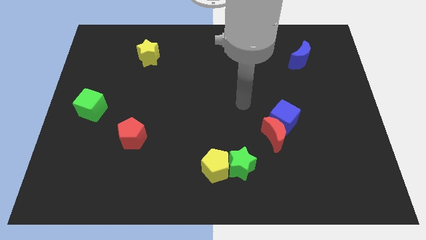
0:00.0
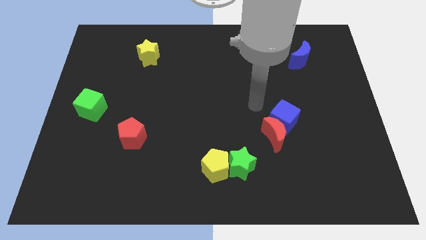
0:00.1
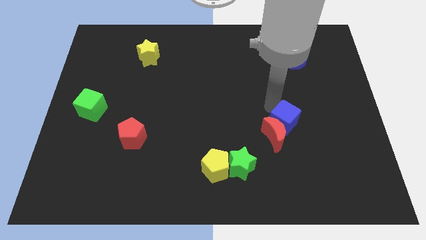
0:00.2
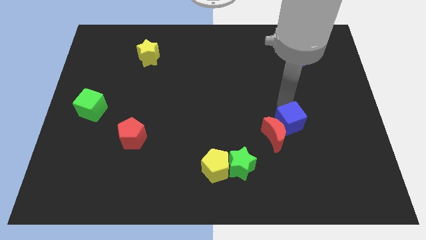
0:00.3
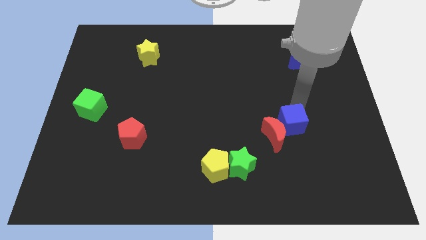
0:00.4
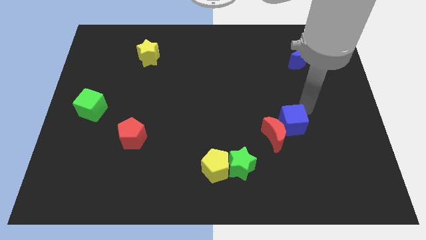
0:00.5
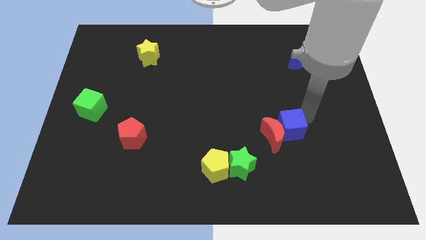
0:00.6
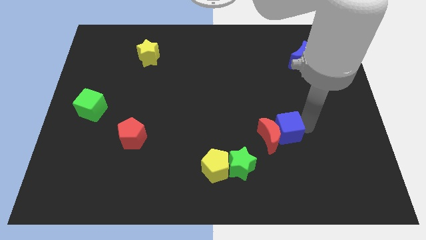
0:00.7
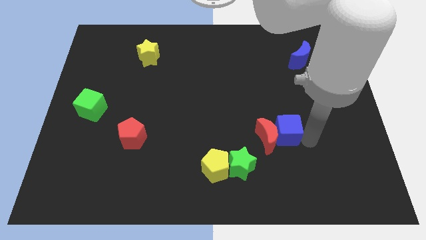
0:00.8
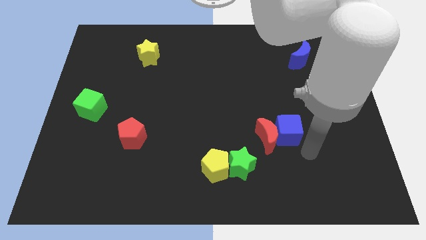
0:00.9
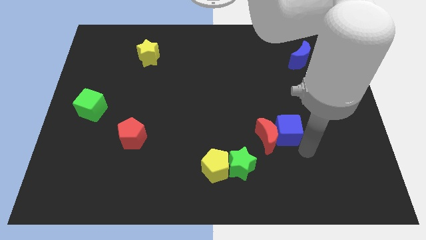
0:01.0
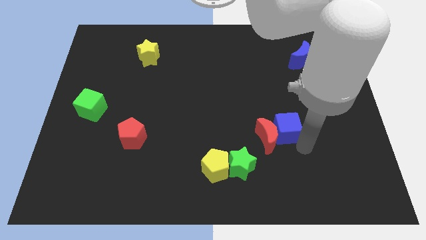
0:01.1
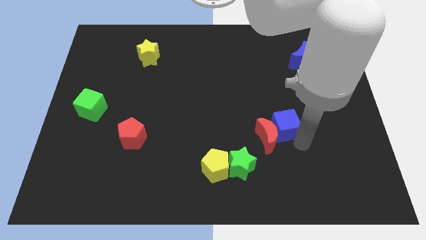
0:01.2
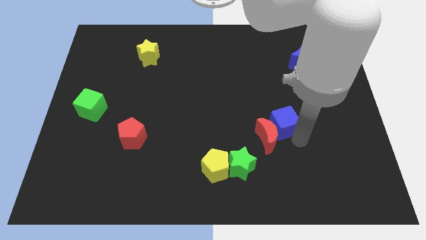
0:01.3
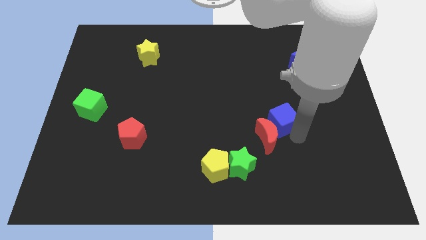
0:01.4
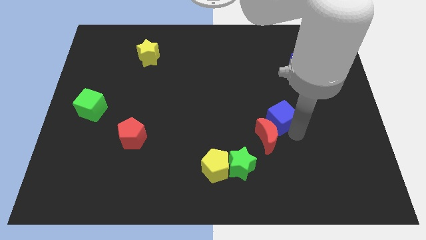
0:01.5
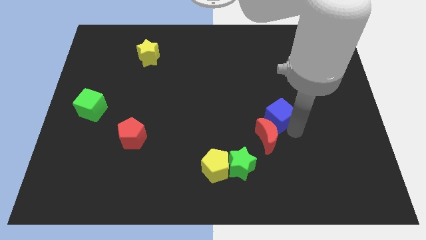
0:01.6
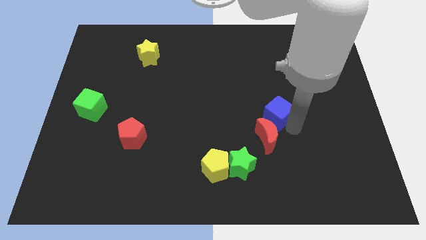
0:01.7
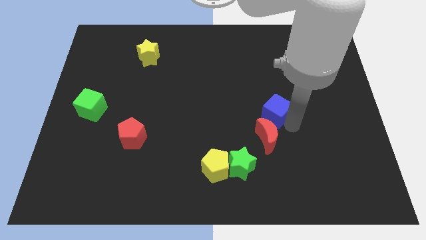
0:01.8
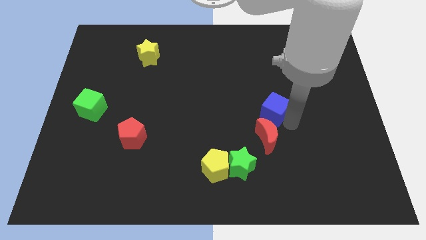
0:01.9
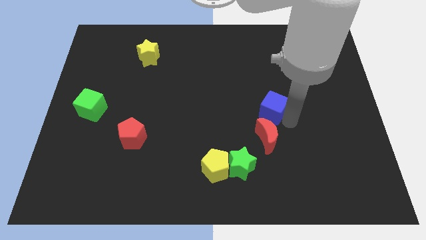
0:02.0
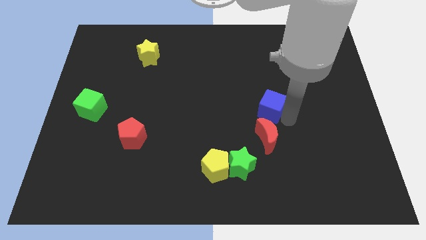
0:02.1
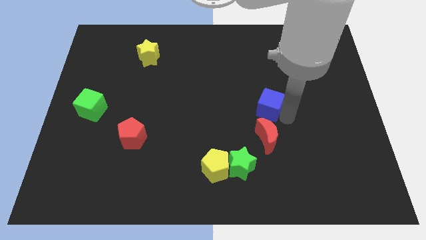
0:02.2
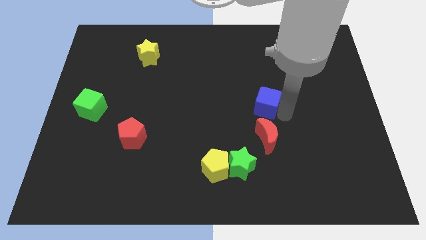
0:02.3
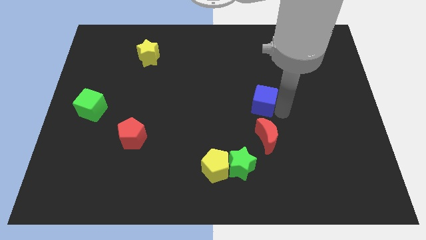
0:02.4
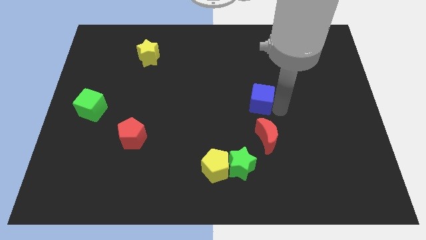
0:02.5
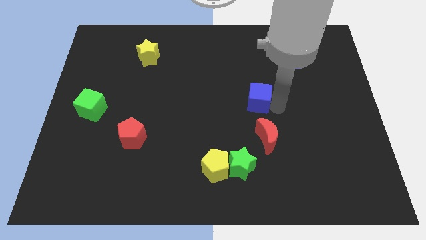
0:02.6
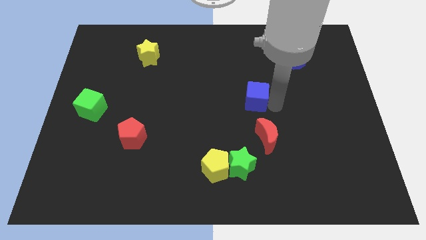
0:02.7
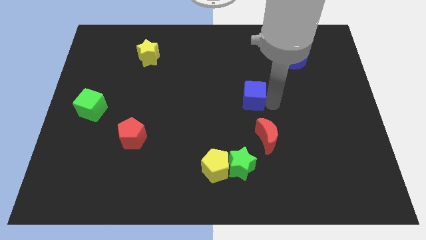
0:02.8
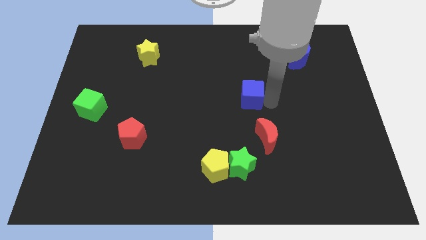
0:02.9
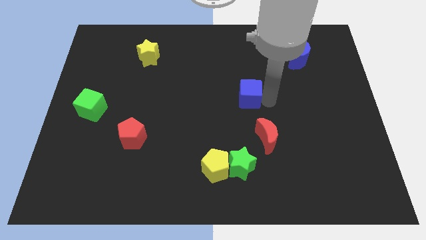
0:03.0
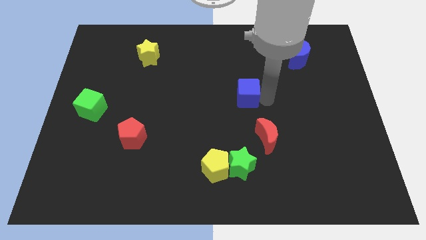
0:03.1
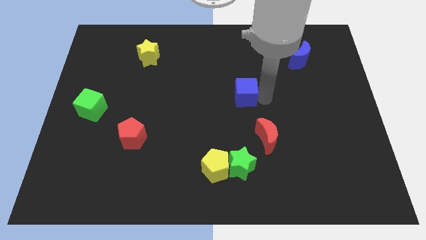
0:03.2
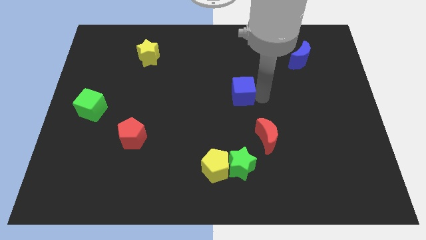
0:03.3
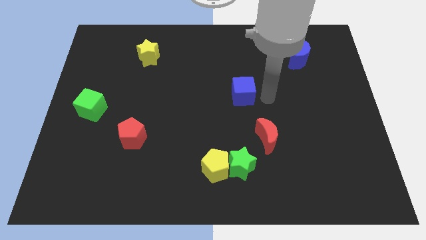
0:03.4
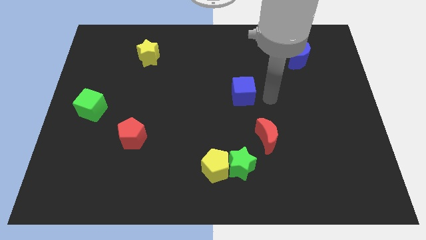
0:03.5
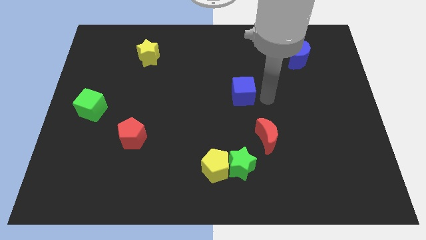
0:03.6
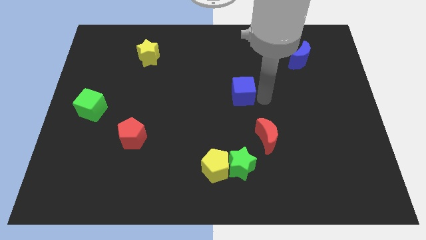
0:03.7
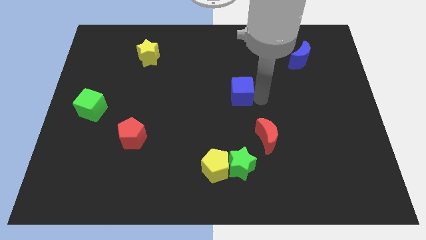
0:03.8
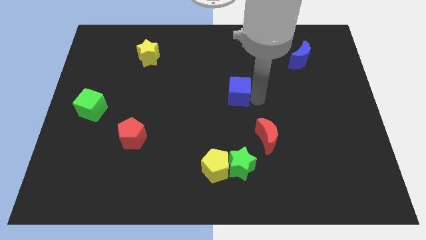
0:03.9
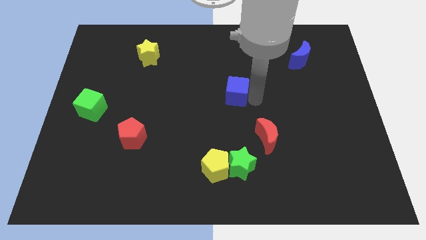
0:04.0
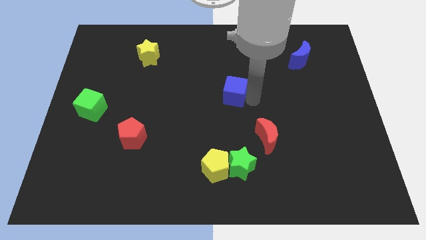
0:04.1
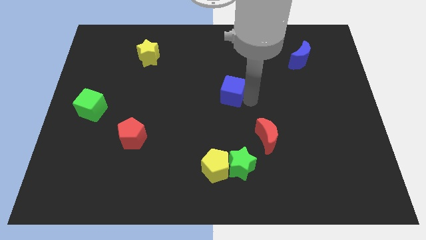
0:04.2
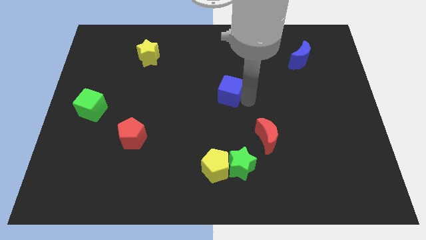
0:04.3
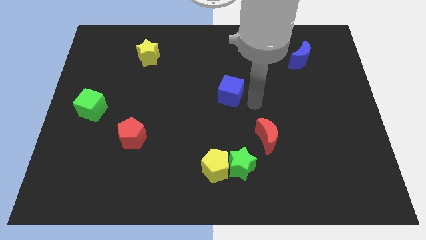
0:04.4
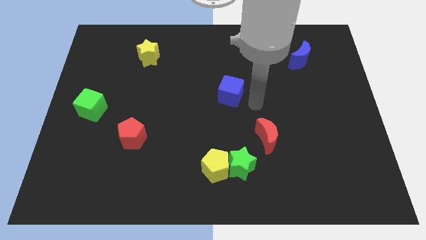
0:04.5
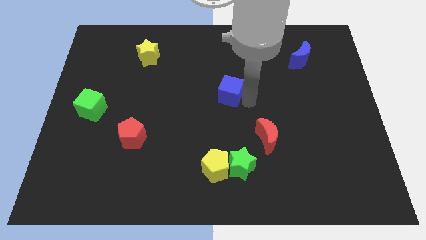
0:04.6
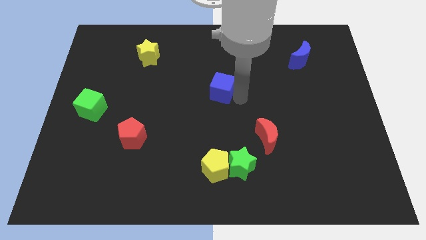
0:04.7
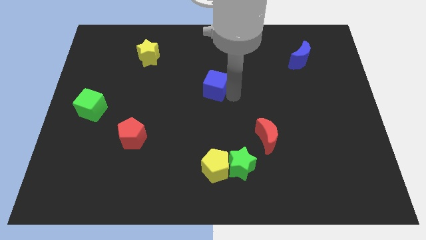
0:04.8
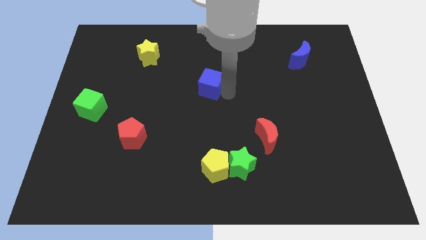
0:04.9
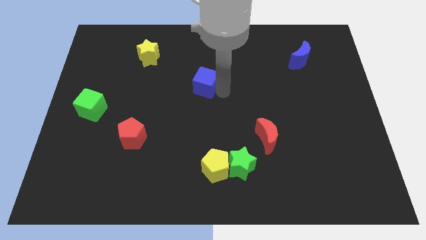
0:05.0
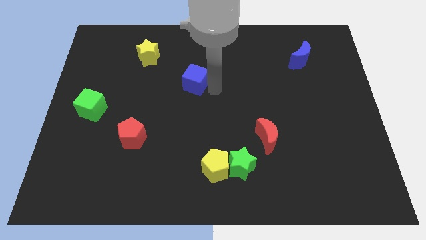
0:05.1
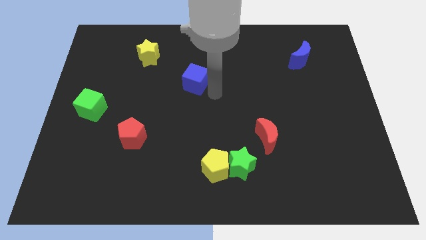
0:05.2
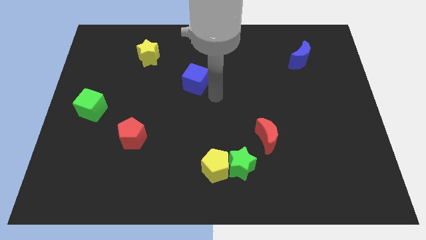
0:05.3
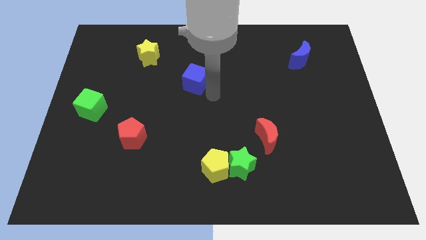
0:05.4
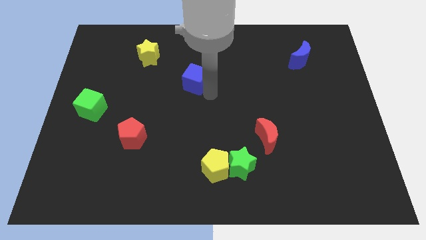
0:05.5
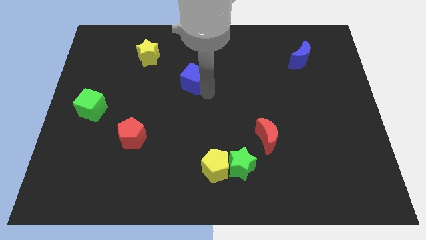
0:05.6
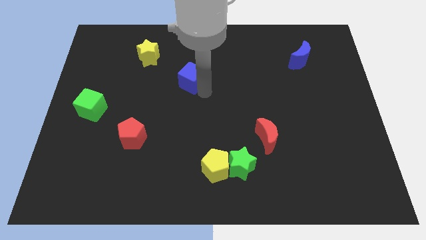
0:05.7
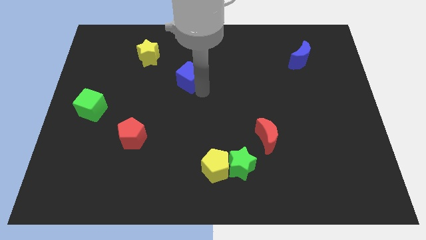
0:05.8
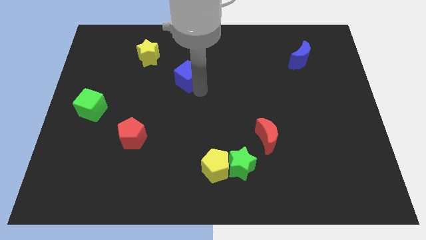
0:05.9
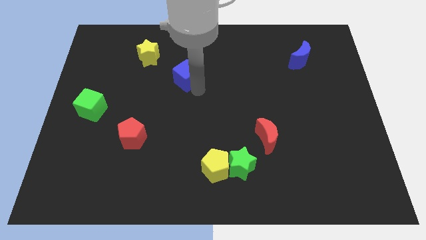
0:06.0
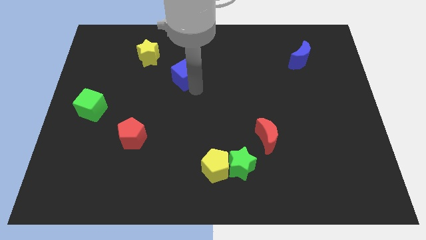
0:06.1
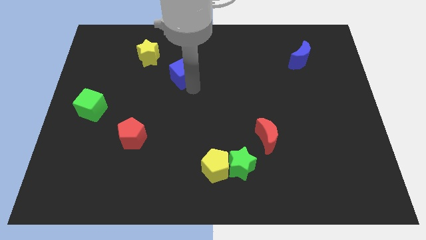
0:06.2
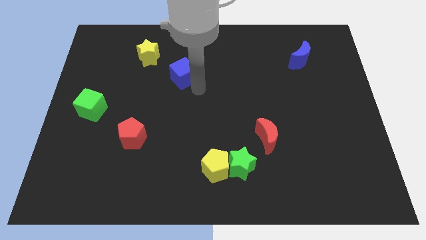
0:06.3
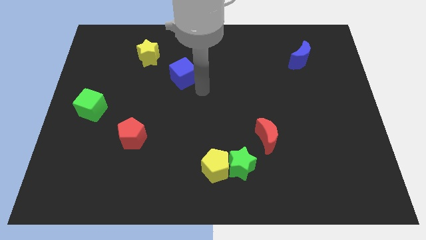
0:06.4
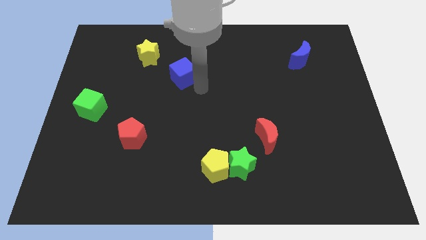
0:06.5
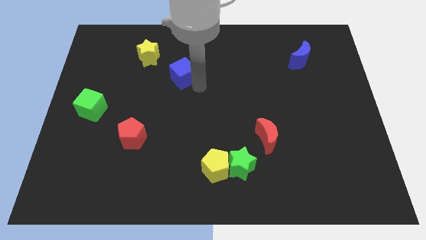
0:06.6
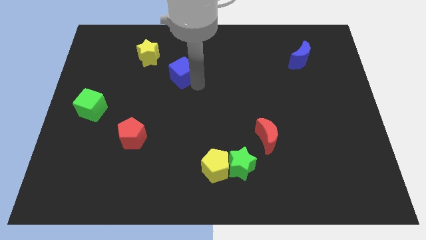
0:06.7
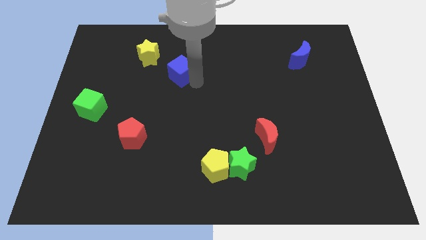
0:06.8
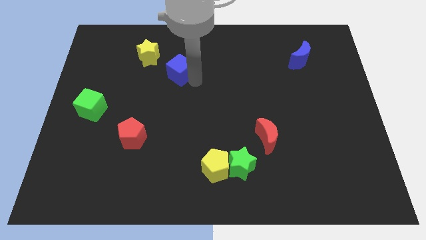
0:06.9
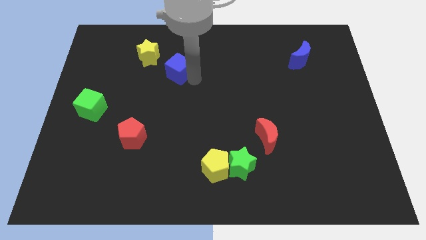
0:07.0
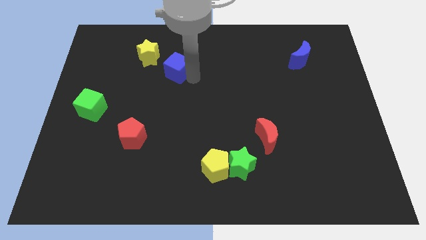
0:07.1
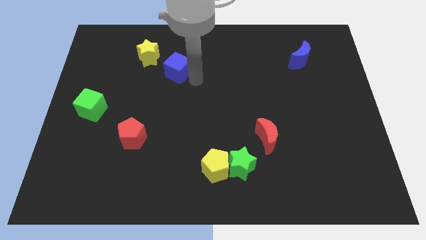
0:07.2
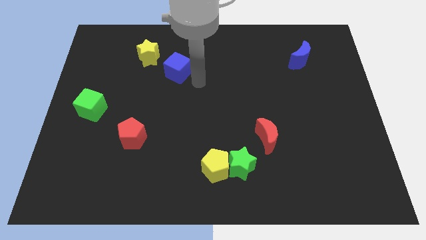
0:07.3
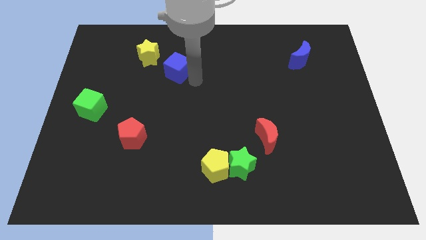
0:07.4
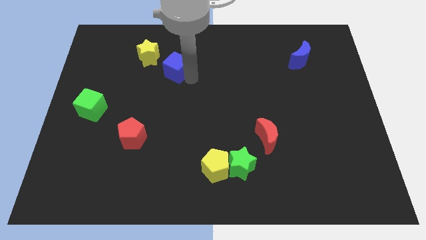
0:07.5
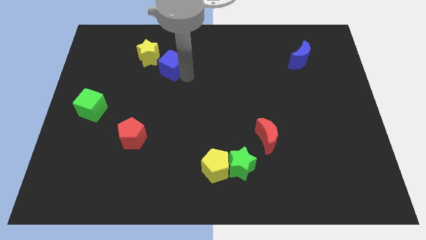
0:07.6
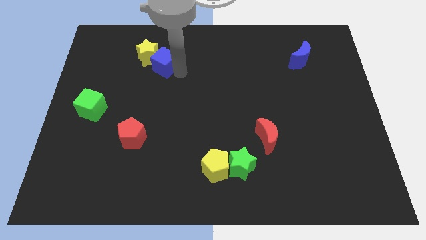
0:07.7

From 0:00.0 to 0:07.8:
slide the blue cube close to the yellow star
